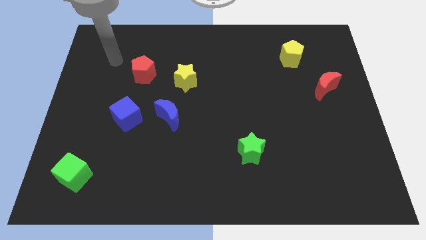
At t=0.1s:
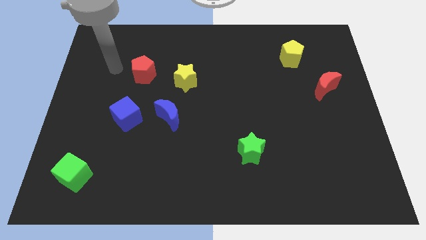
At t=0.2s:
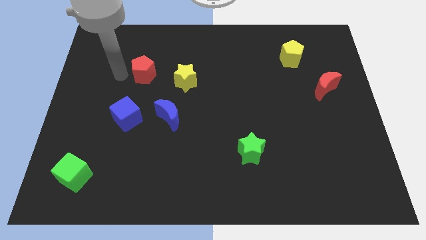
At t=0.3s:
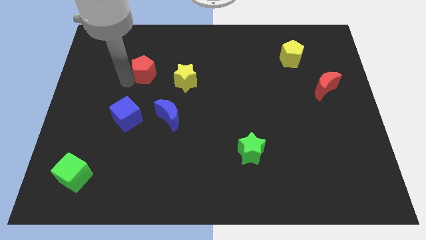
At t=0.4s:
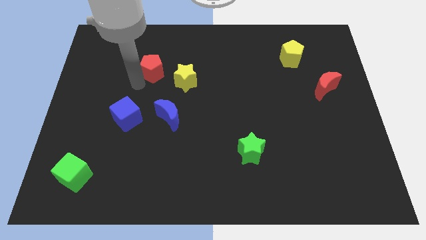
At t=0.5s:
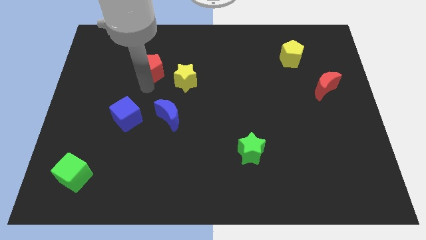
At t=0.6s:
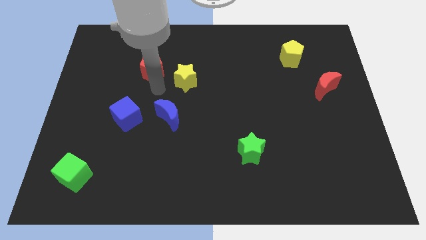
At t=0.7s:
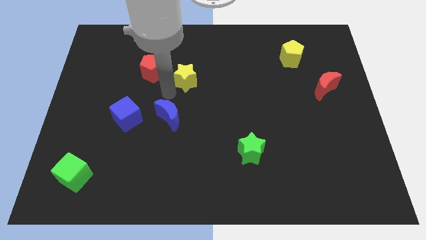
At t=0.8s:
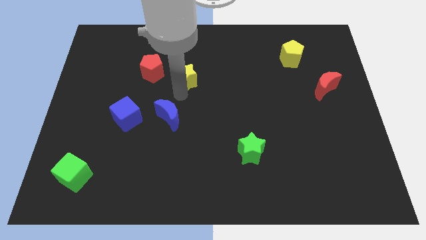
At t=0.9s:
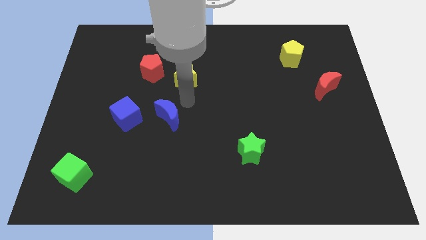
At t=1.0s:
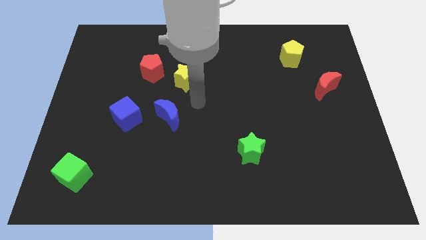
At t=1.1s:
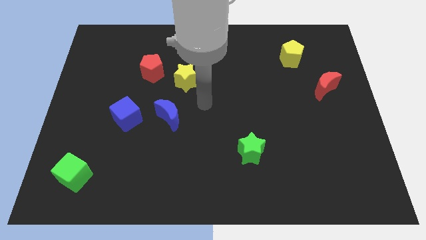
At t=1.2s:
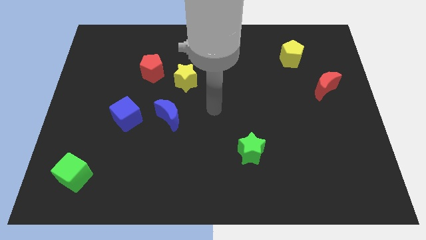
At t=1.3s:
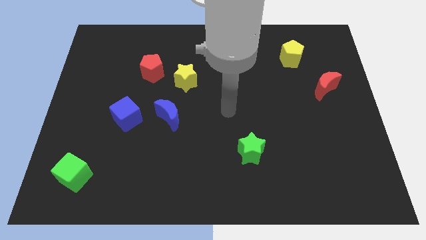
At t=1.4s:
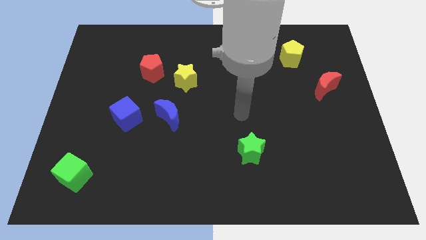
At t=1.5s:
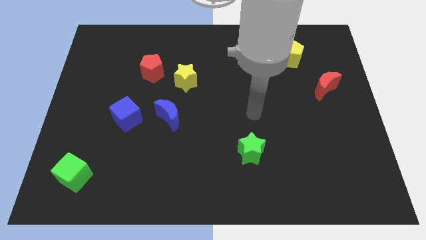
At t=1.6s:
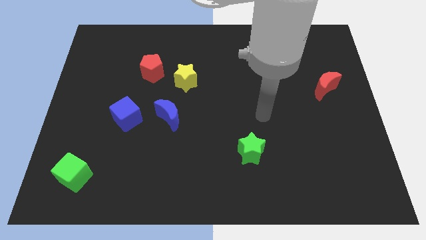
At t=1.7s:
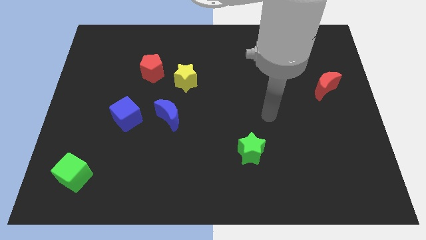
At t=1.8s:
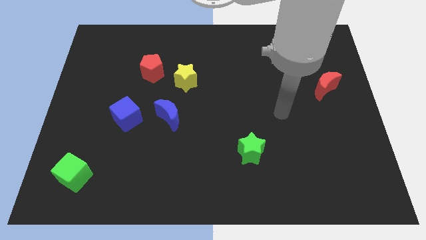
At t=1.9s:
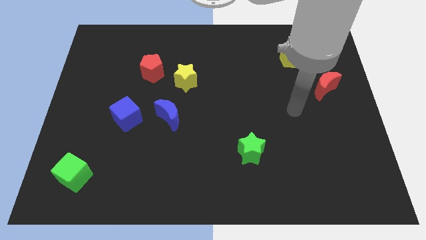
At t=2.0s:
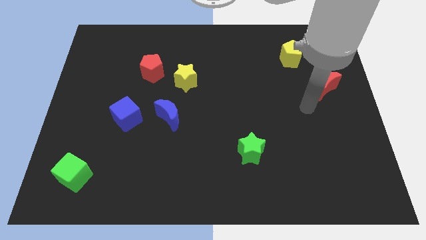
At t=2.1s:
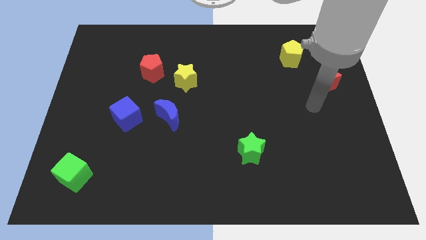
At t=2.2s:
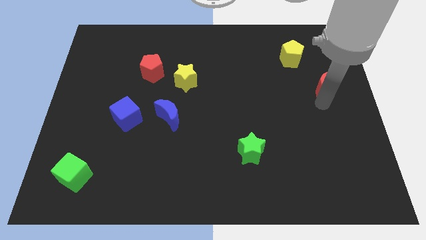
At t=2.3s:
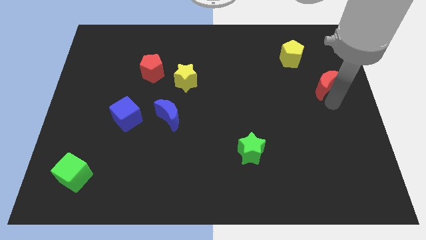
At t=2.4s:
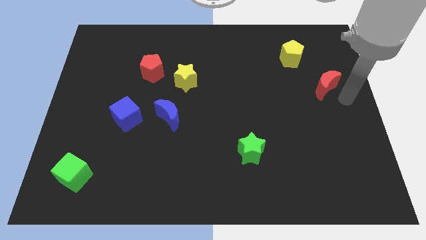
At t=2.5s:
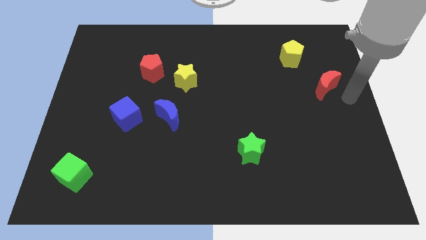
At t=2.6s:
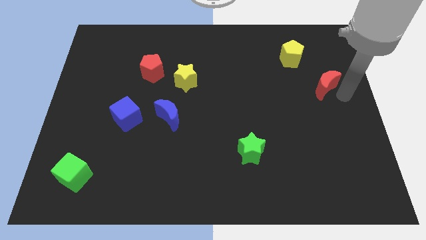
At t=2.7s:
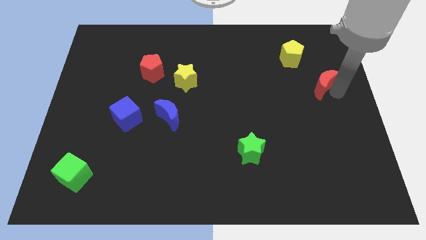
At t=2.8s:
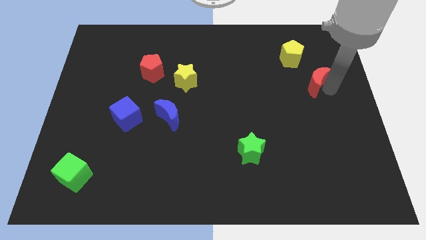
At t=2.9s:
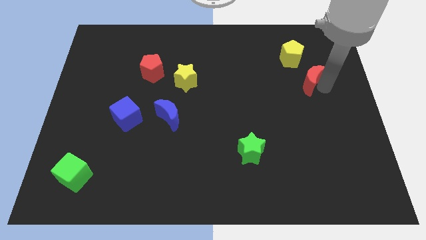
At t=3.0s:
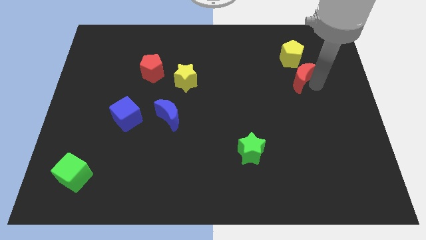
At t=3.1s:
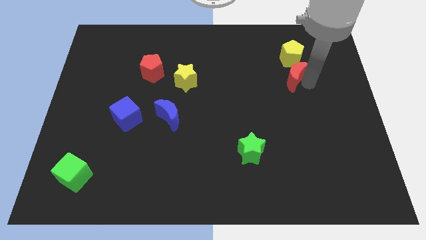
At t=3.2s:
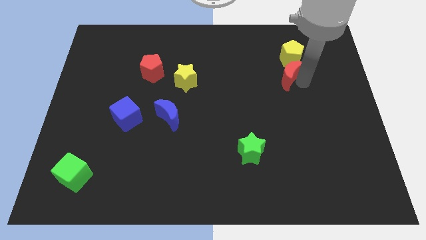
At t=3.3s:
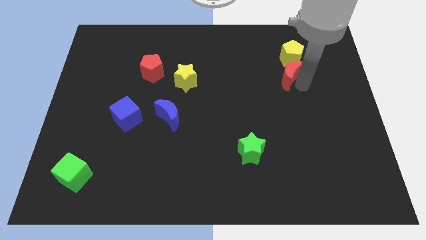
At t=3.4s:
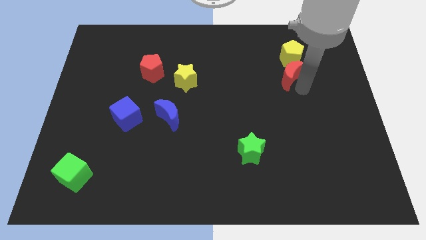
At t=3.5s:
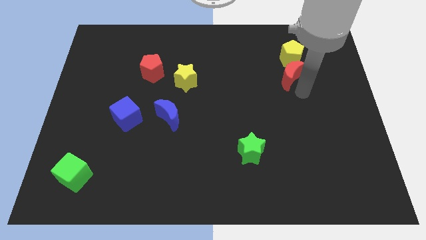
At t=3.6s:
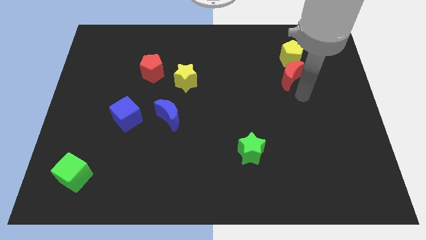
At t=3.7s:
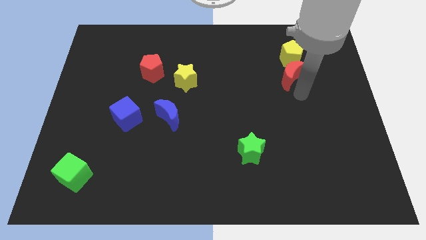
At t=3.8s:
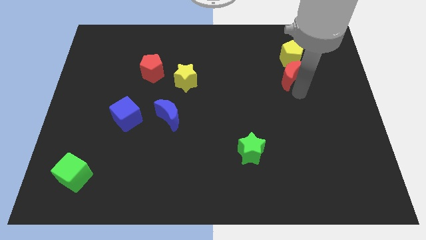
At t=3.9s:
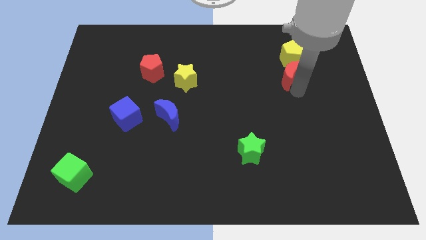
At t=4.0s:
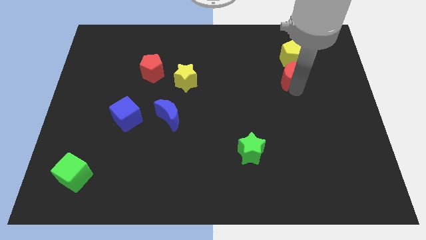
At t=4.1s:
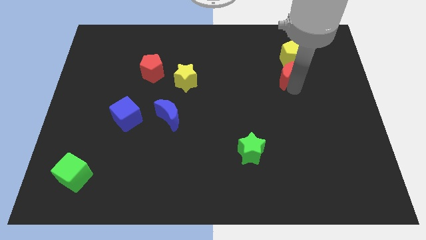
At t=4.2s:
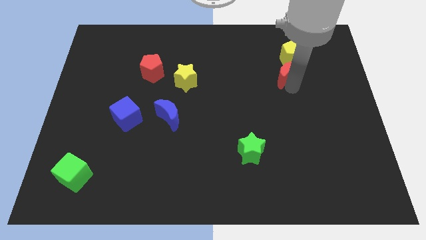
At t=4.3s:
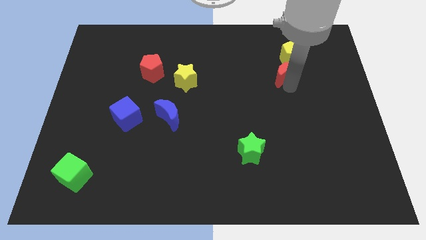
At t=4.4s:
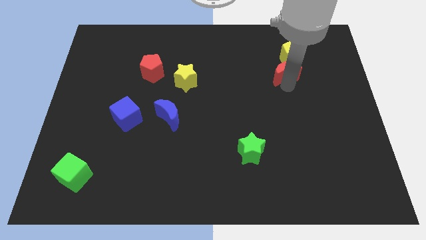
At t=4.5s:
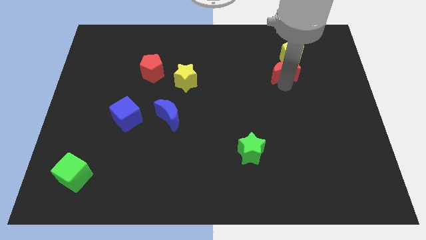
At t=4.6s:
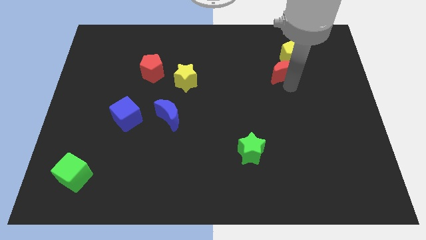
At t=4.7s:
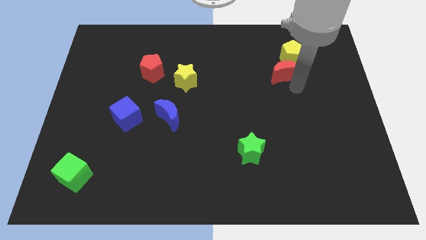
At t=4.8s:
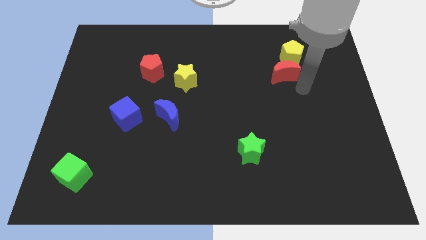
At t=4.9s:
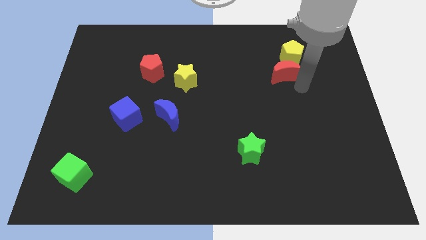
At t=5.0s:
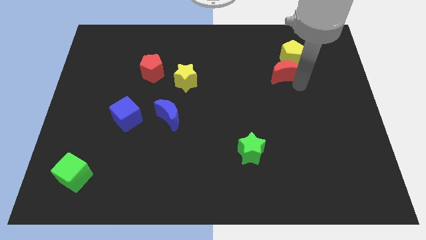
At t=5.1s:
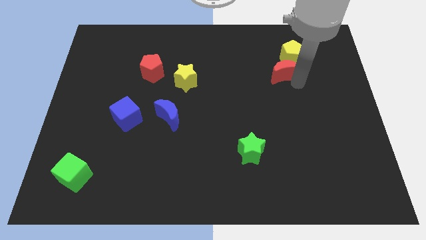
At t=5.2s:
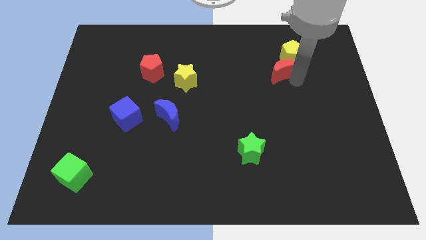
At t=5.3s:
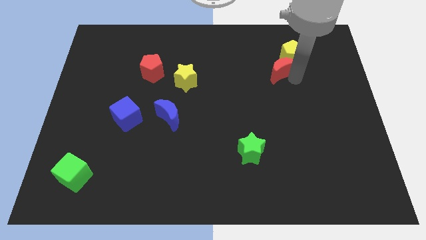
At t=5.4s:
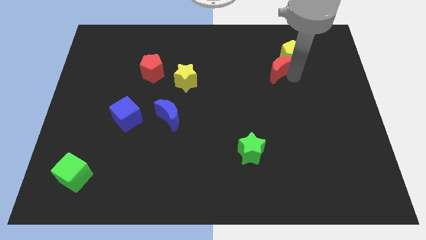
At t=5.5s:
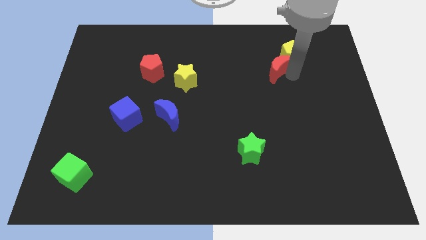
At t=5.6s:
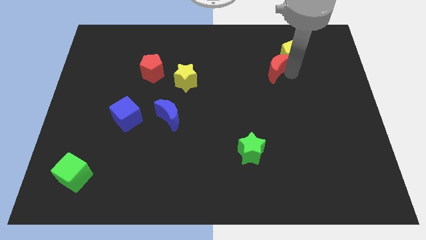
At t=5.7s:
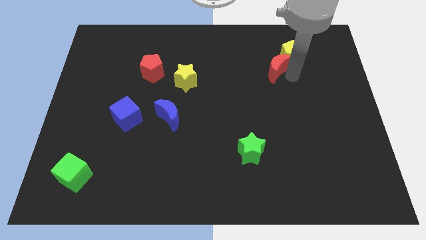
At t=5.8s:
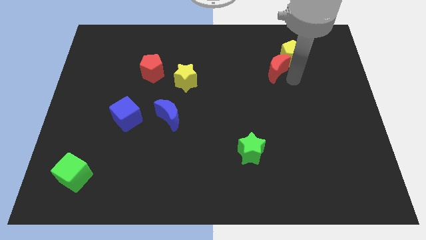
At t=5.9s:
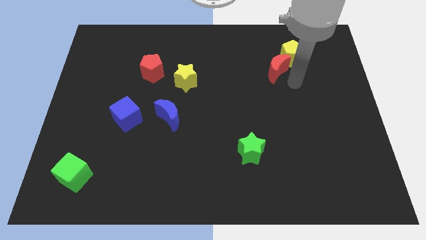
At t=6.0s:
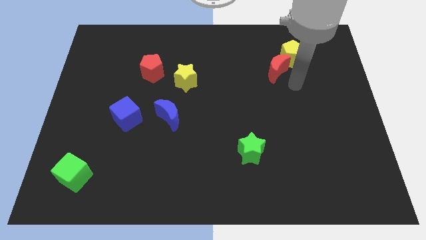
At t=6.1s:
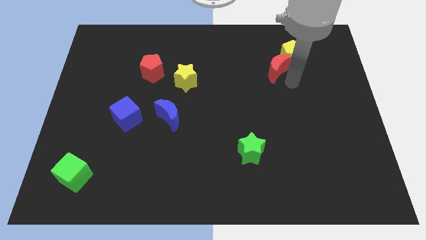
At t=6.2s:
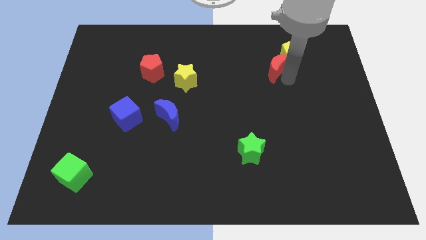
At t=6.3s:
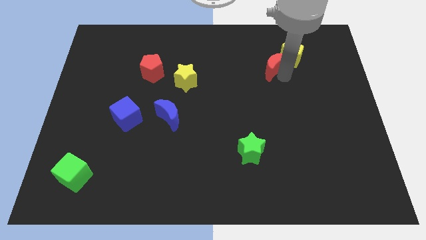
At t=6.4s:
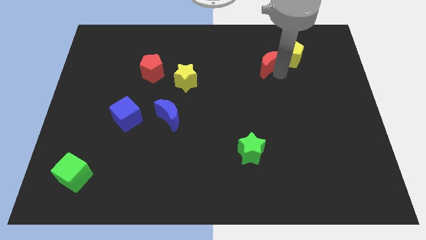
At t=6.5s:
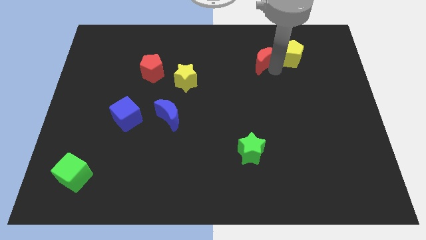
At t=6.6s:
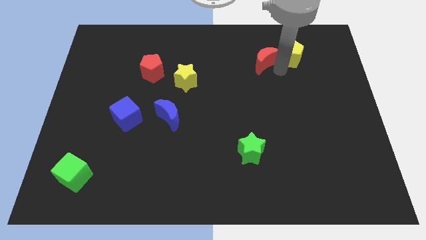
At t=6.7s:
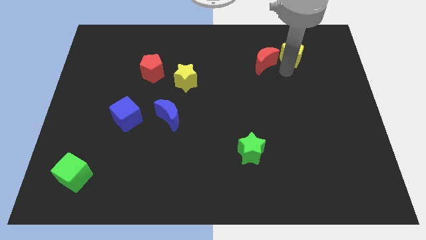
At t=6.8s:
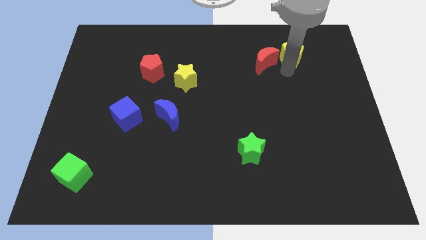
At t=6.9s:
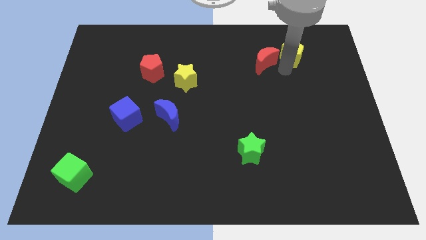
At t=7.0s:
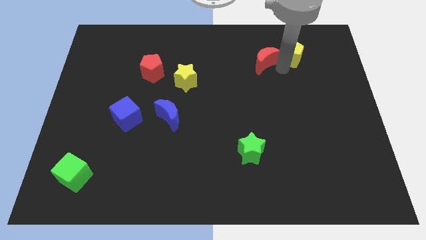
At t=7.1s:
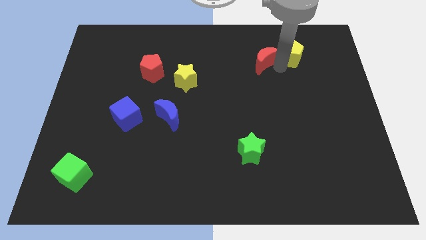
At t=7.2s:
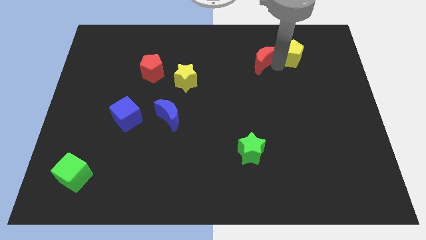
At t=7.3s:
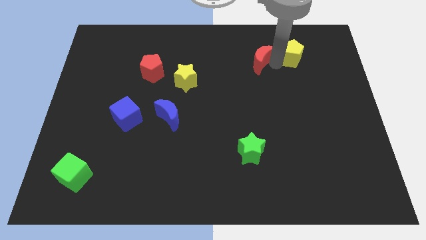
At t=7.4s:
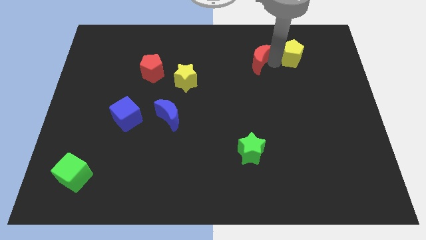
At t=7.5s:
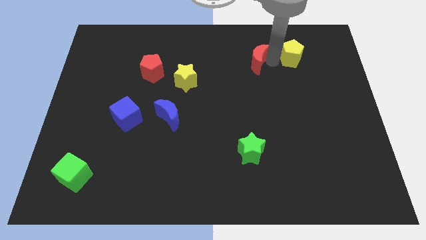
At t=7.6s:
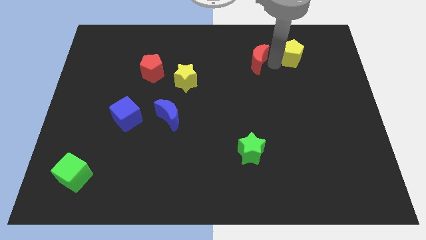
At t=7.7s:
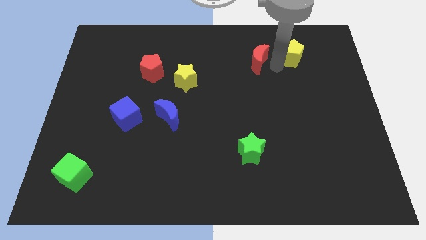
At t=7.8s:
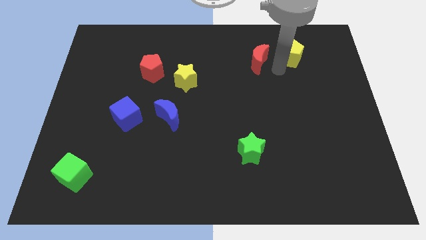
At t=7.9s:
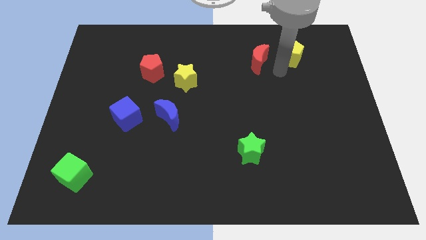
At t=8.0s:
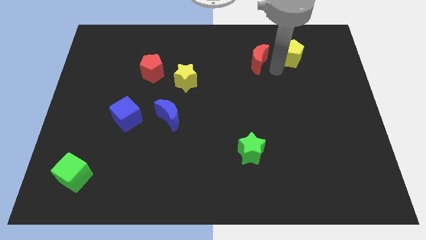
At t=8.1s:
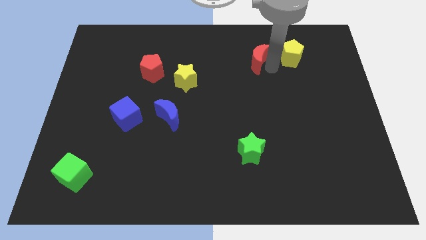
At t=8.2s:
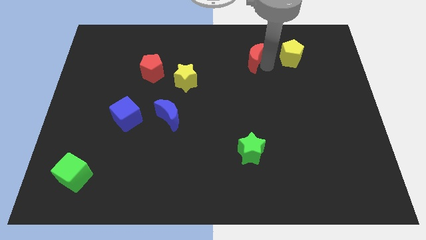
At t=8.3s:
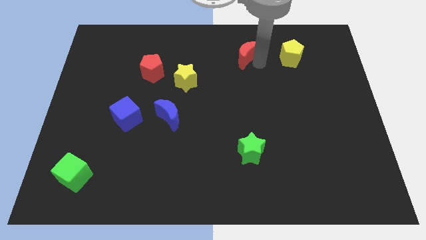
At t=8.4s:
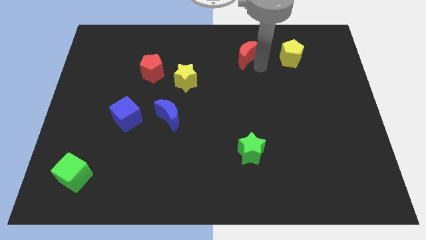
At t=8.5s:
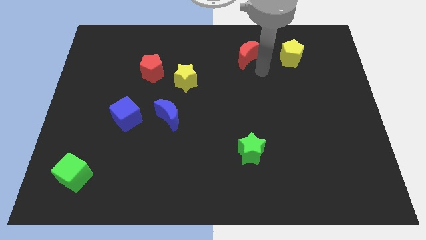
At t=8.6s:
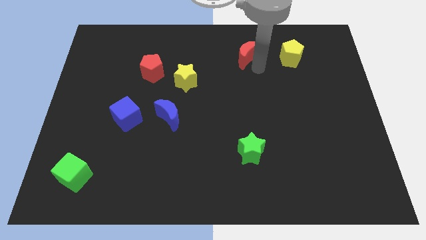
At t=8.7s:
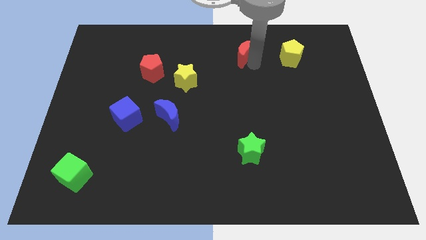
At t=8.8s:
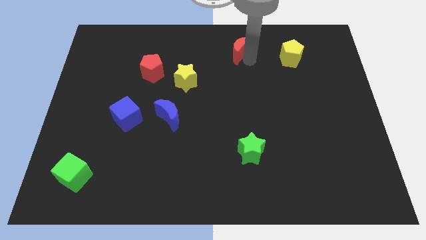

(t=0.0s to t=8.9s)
move the red moon to the top
